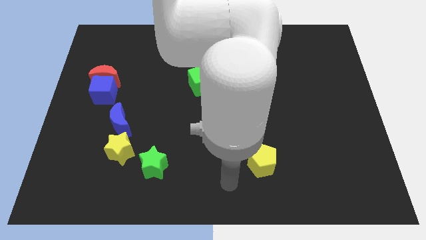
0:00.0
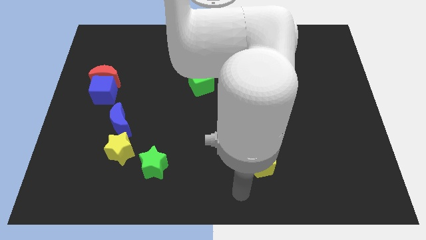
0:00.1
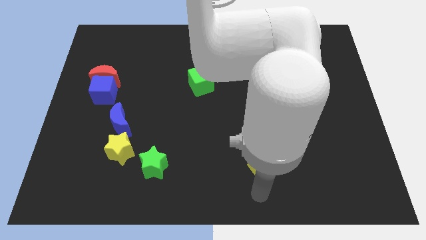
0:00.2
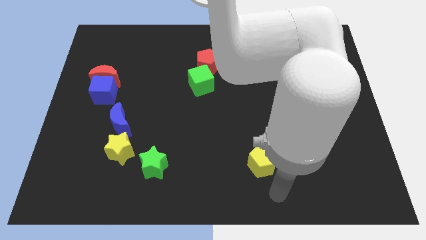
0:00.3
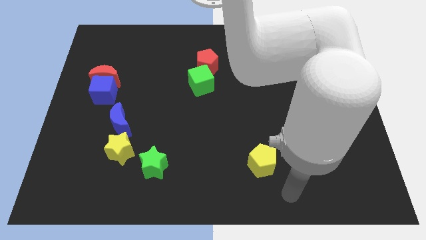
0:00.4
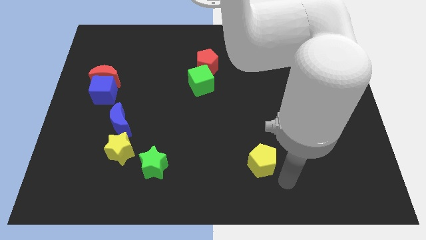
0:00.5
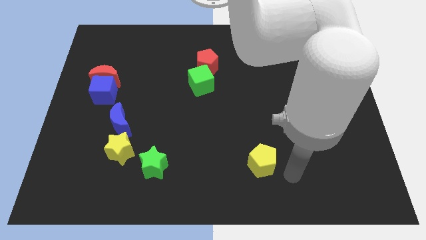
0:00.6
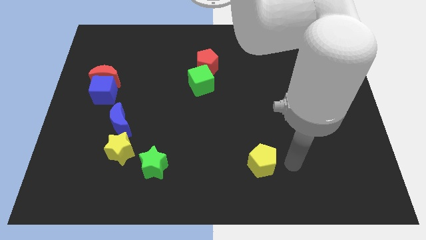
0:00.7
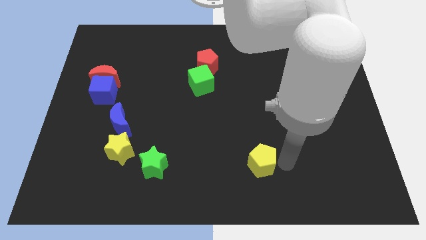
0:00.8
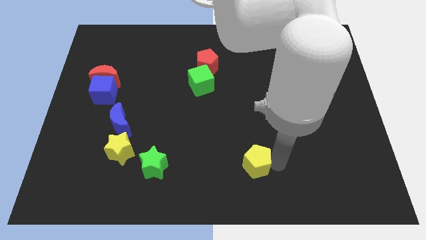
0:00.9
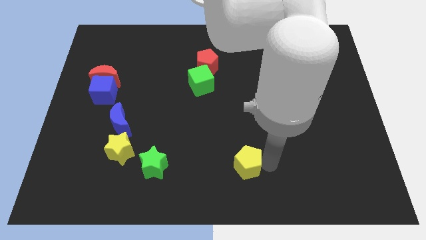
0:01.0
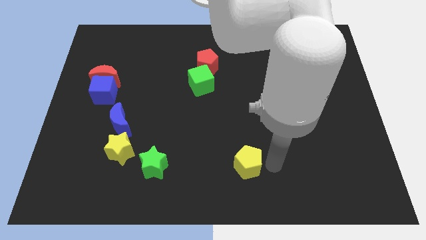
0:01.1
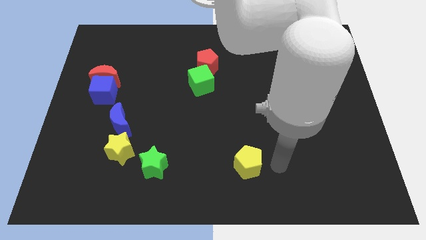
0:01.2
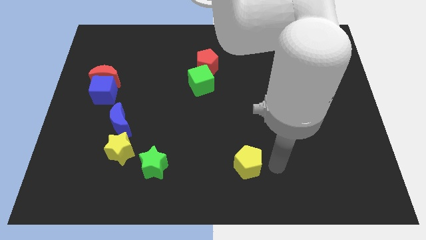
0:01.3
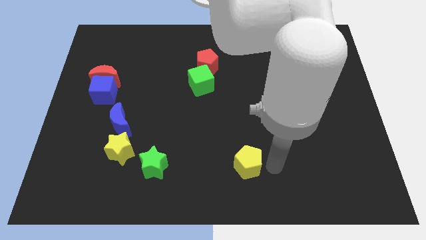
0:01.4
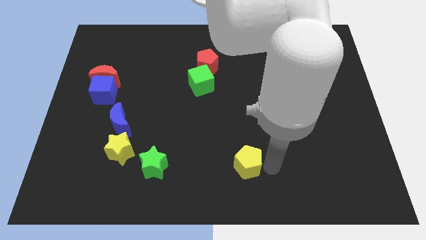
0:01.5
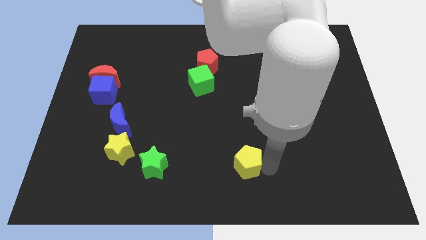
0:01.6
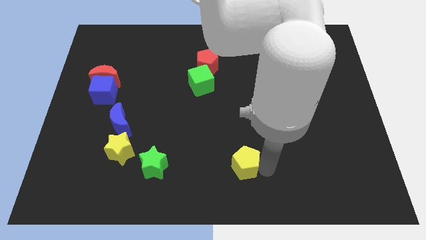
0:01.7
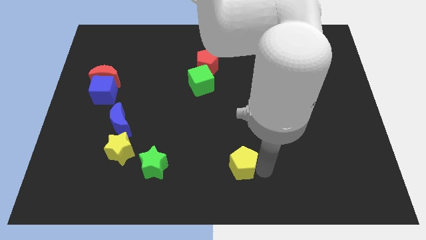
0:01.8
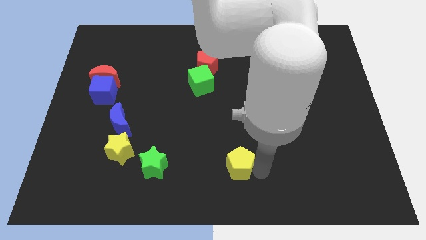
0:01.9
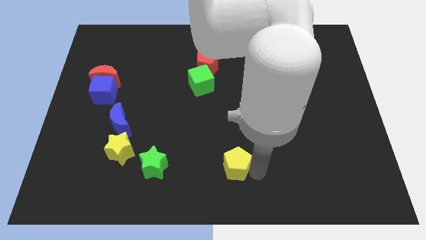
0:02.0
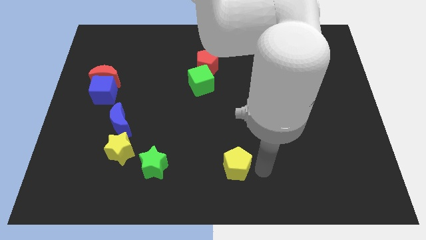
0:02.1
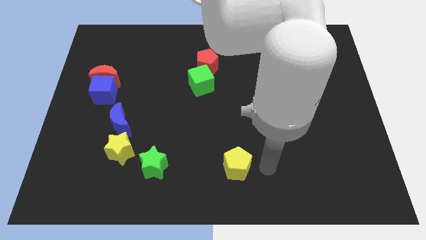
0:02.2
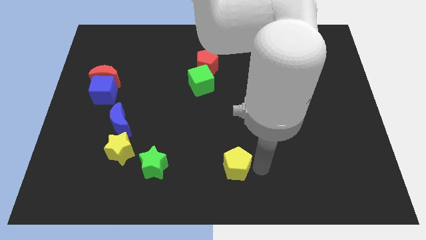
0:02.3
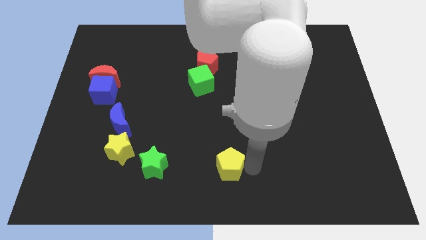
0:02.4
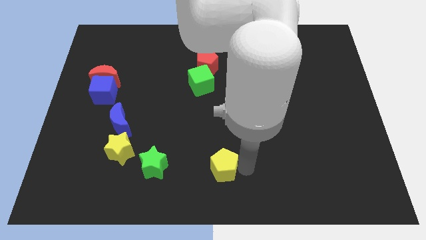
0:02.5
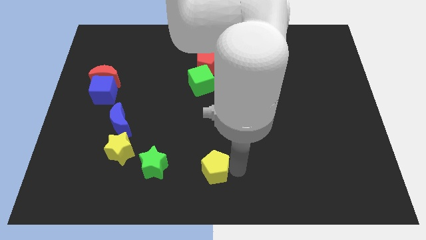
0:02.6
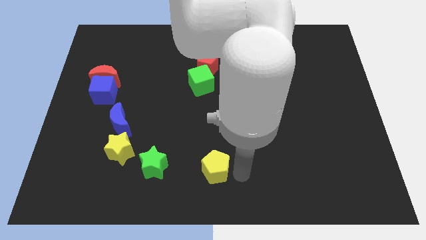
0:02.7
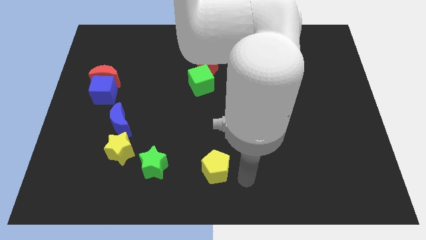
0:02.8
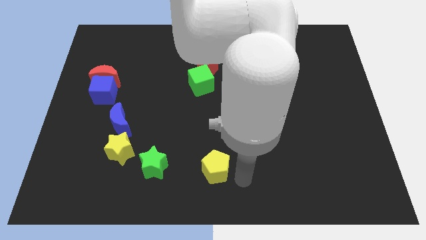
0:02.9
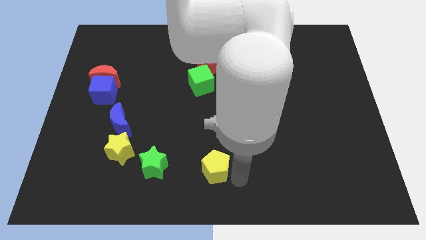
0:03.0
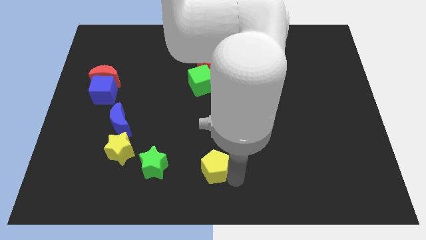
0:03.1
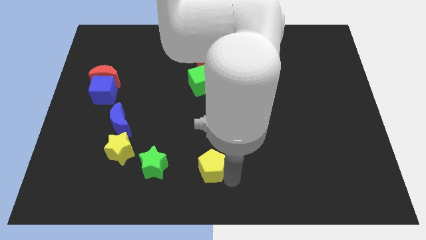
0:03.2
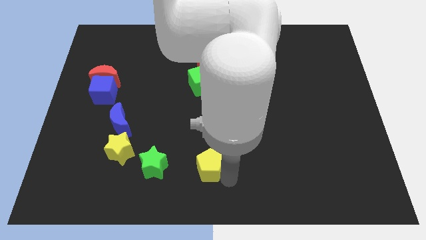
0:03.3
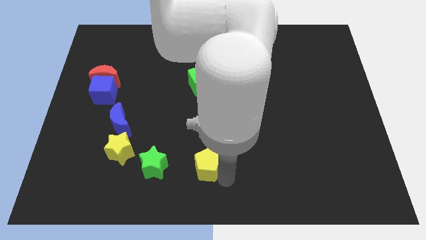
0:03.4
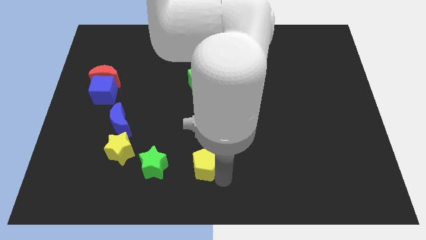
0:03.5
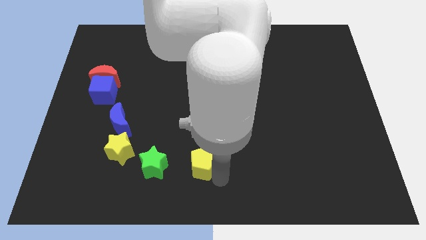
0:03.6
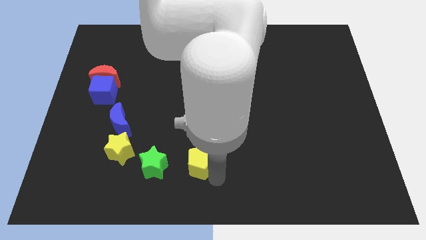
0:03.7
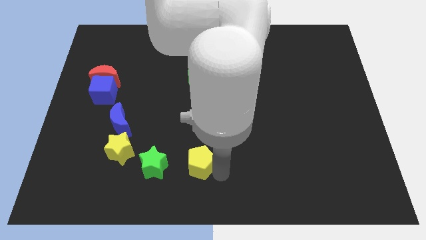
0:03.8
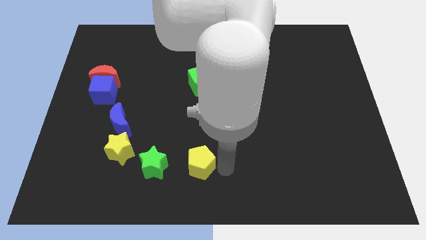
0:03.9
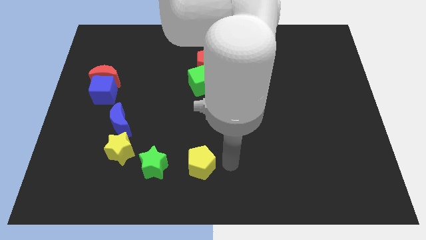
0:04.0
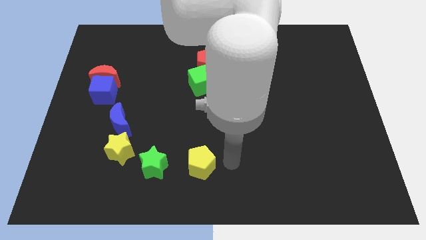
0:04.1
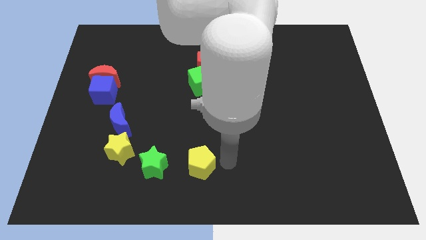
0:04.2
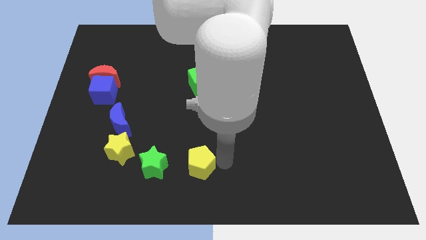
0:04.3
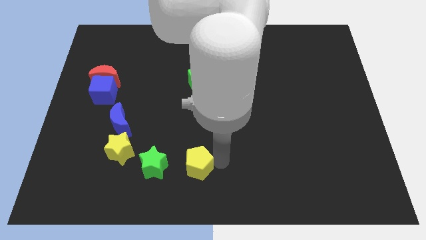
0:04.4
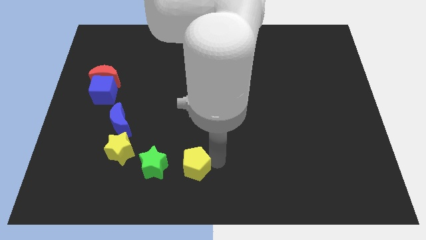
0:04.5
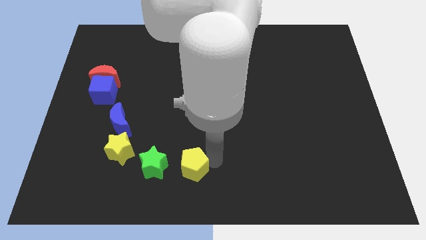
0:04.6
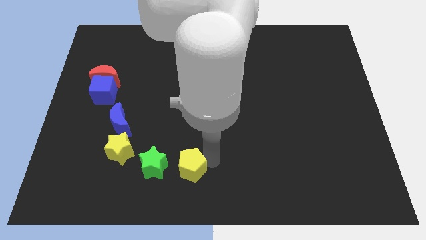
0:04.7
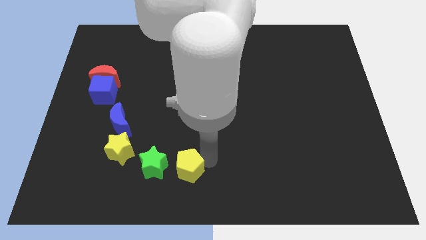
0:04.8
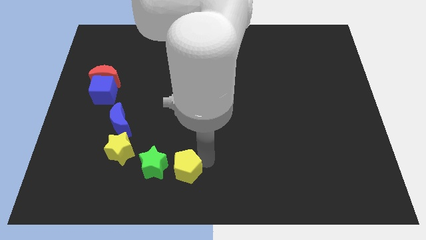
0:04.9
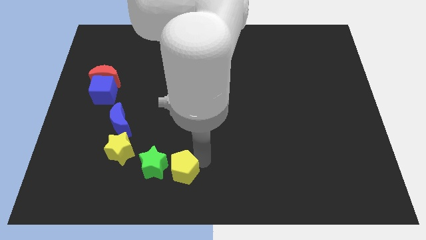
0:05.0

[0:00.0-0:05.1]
slide the yellow pentagon next to the green star

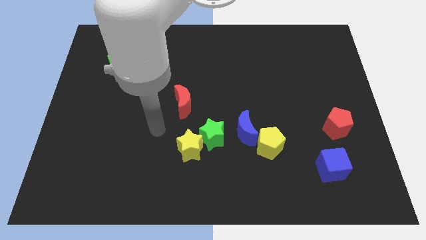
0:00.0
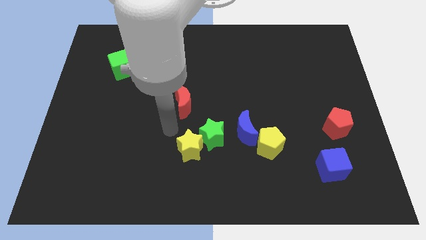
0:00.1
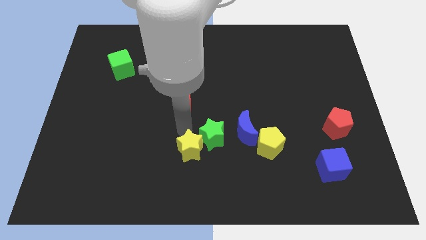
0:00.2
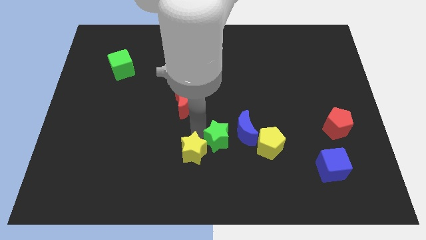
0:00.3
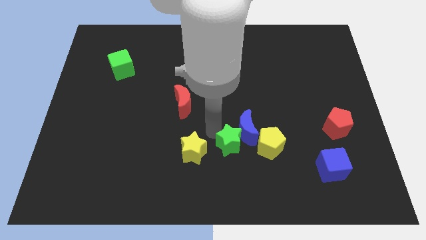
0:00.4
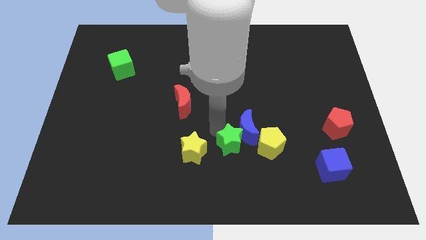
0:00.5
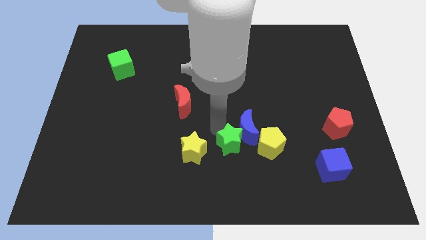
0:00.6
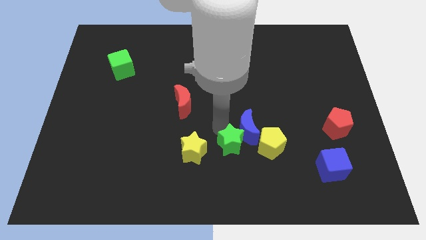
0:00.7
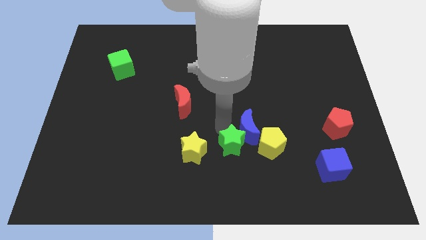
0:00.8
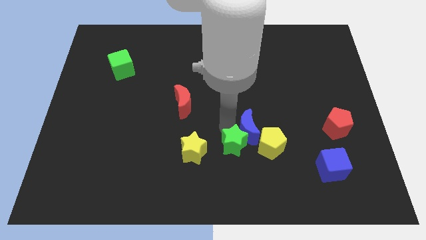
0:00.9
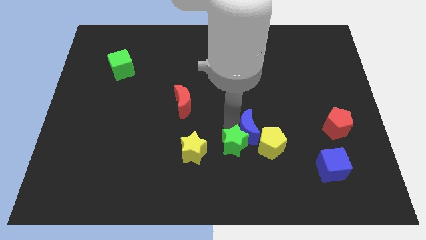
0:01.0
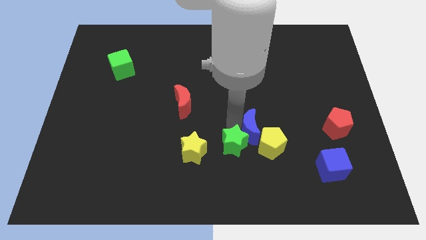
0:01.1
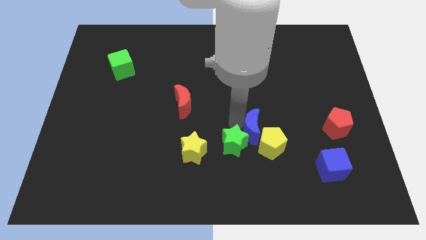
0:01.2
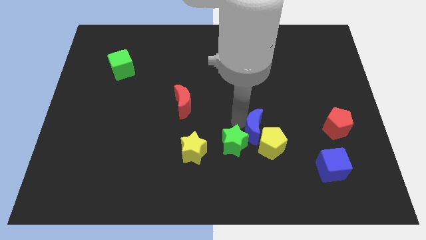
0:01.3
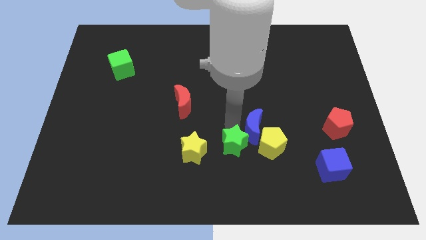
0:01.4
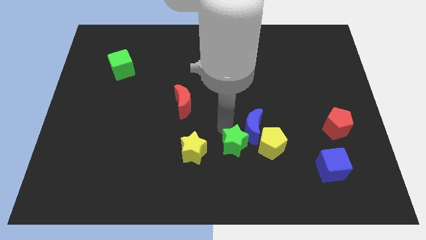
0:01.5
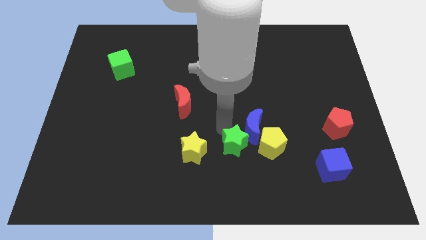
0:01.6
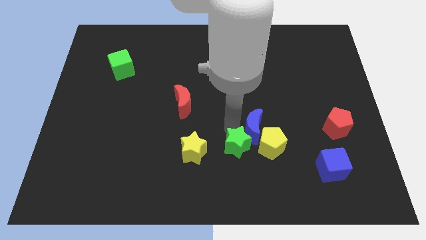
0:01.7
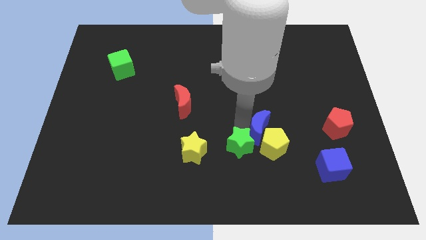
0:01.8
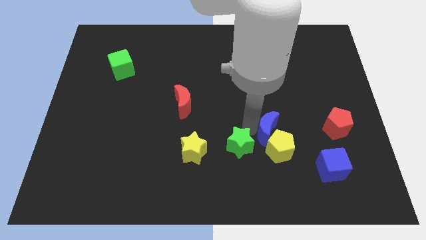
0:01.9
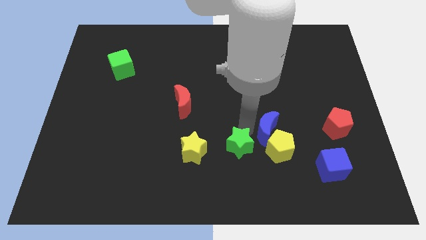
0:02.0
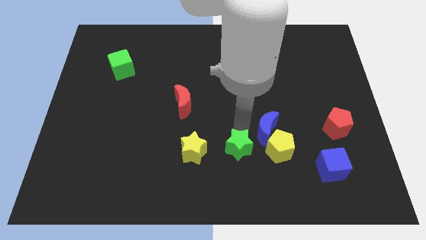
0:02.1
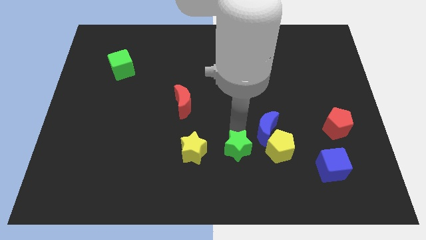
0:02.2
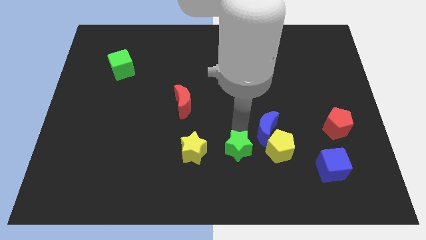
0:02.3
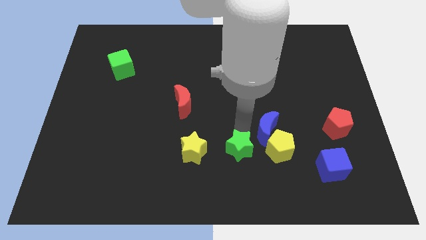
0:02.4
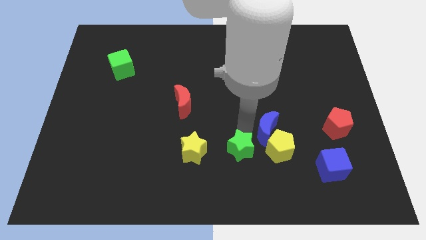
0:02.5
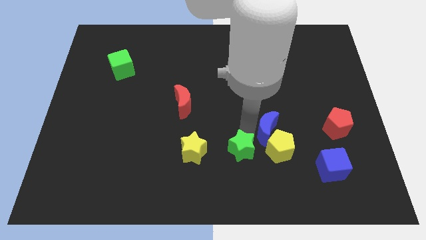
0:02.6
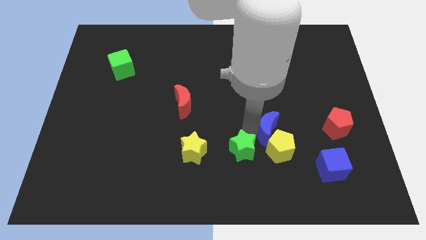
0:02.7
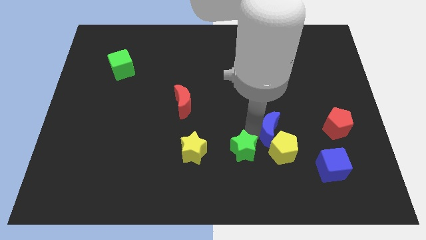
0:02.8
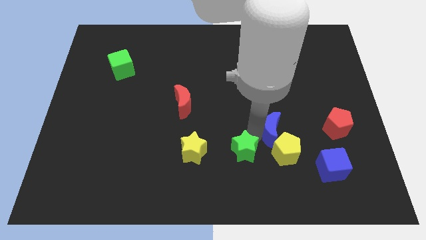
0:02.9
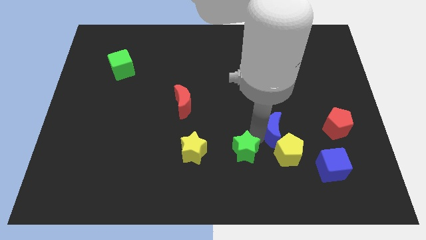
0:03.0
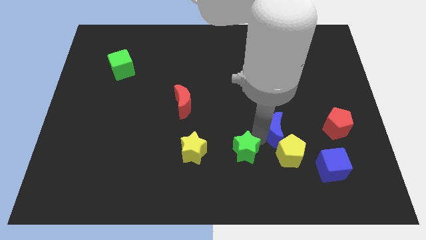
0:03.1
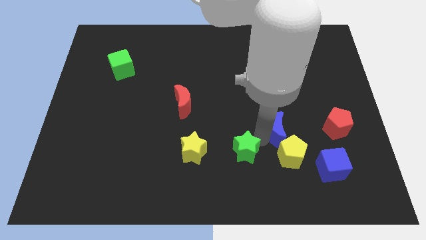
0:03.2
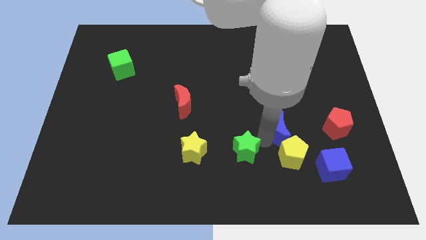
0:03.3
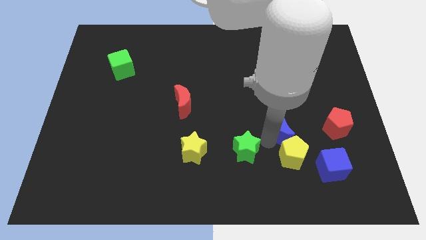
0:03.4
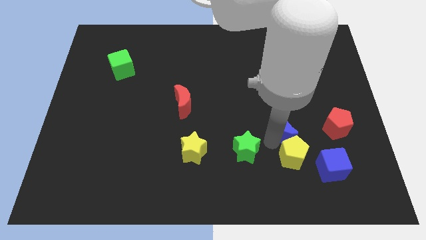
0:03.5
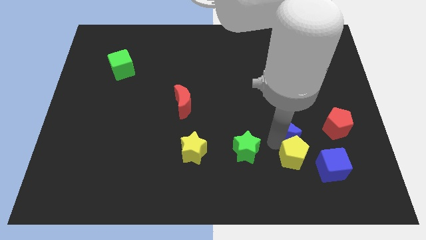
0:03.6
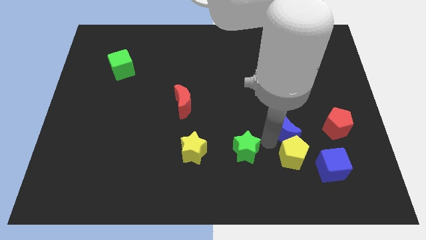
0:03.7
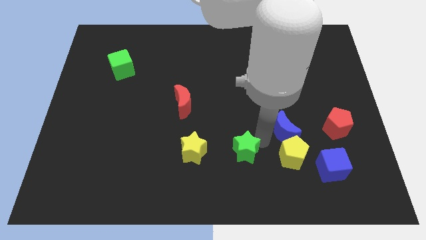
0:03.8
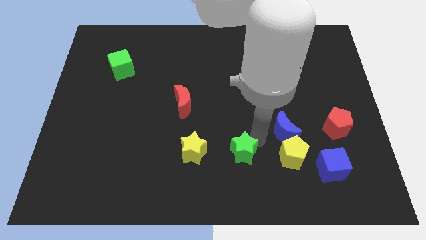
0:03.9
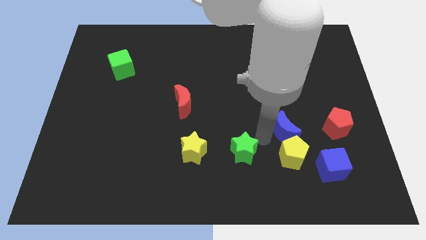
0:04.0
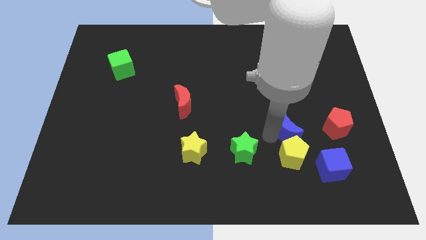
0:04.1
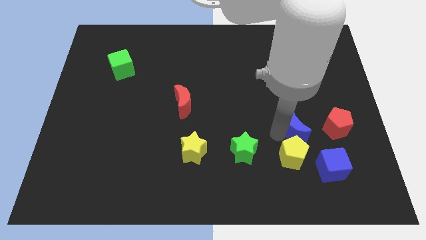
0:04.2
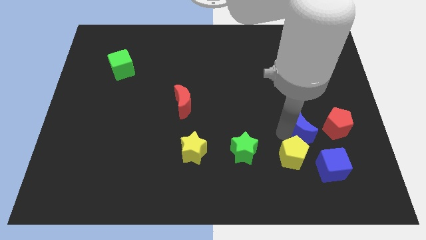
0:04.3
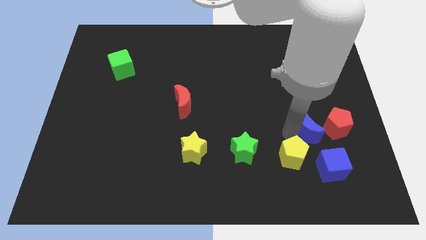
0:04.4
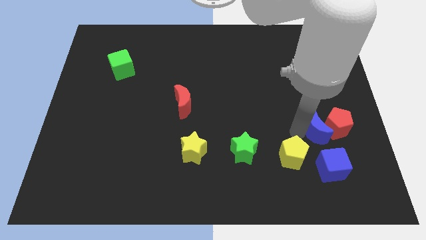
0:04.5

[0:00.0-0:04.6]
move the blue moon to the red pentagon
